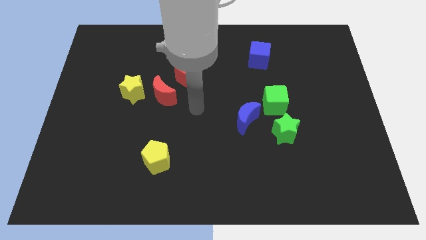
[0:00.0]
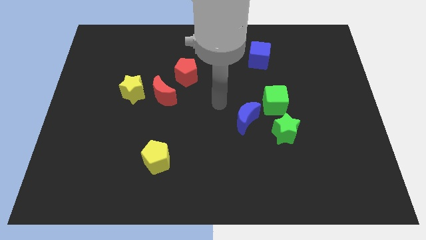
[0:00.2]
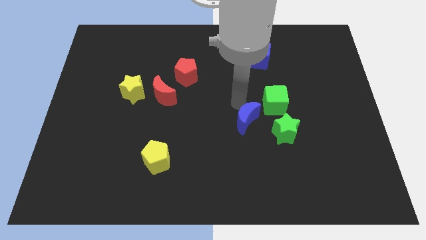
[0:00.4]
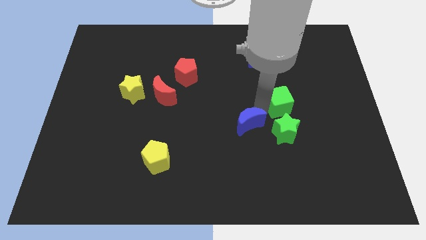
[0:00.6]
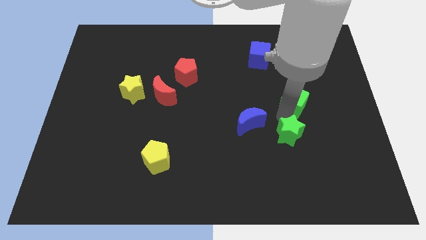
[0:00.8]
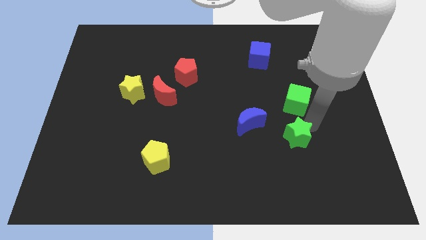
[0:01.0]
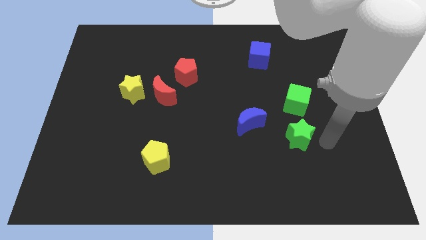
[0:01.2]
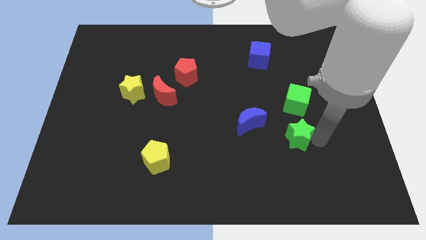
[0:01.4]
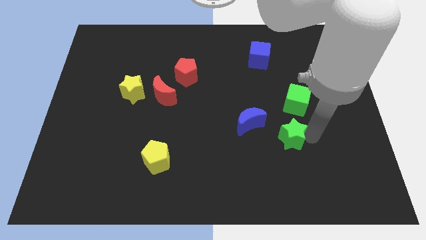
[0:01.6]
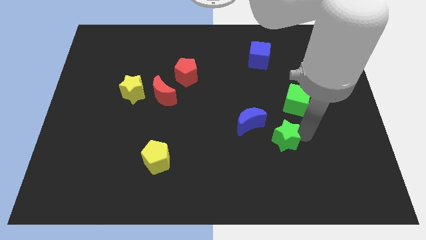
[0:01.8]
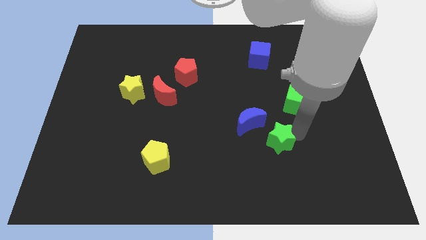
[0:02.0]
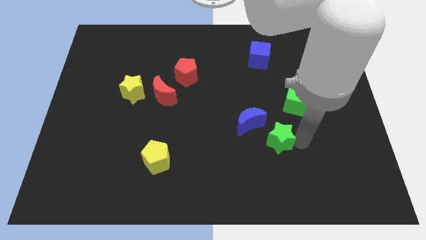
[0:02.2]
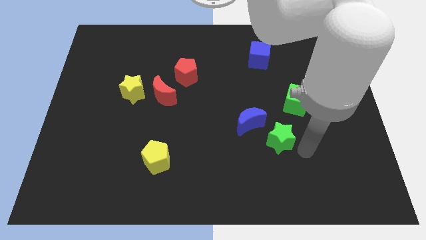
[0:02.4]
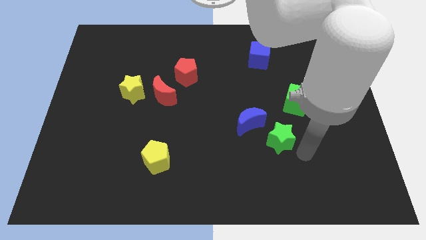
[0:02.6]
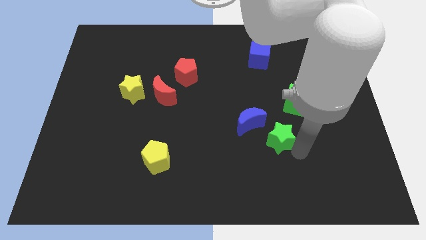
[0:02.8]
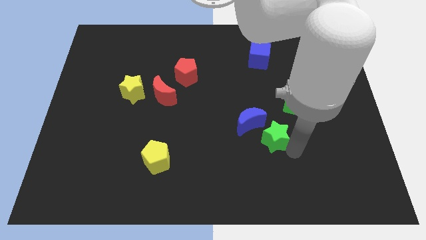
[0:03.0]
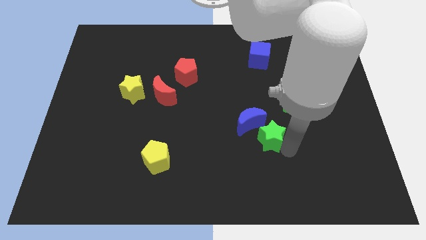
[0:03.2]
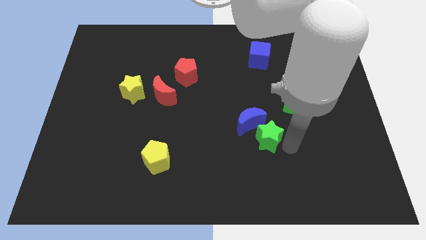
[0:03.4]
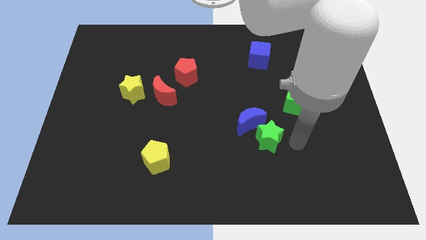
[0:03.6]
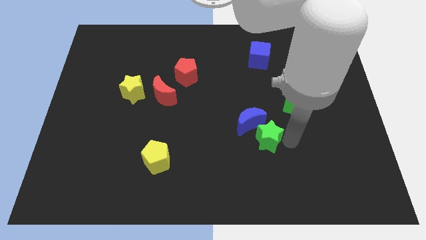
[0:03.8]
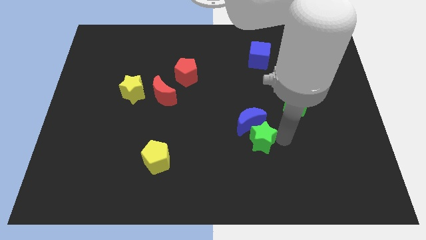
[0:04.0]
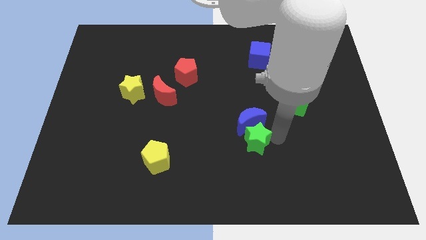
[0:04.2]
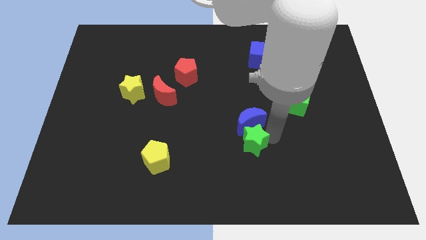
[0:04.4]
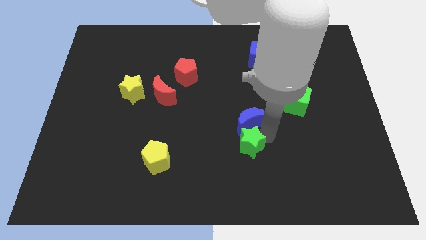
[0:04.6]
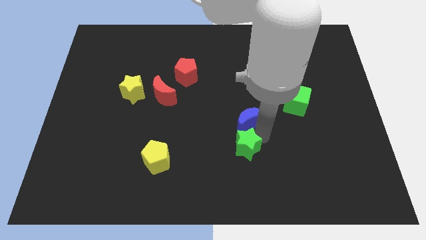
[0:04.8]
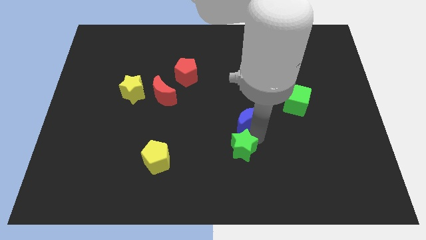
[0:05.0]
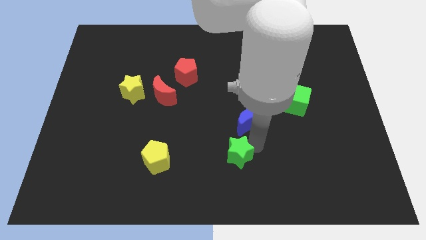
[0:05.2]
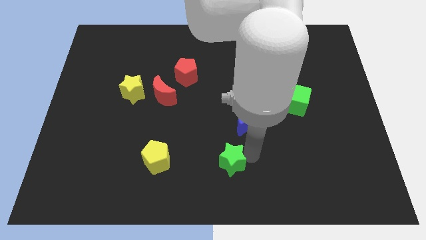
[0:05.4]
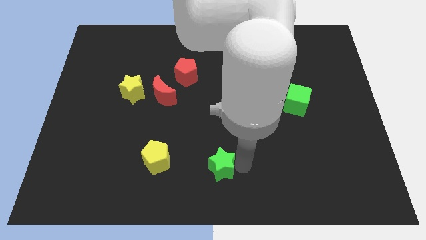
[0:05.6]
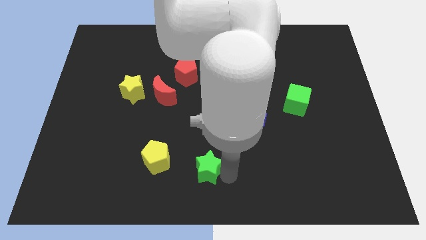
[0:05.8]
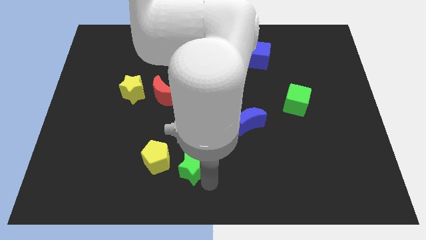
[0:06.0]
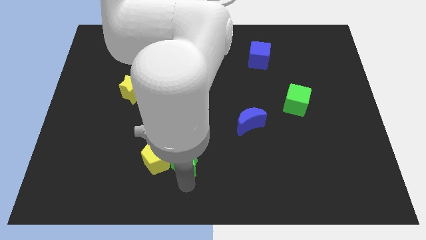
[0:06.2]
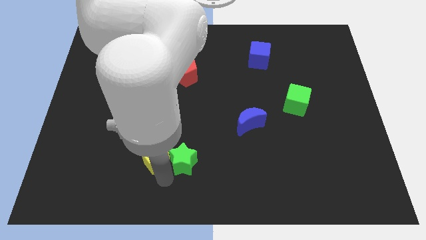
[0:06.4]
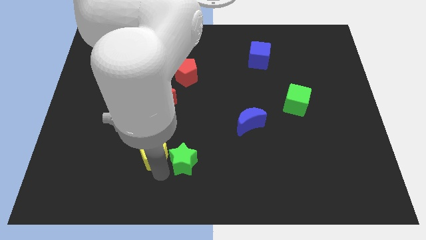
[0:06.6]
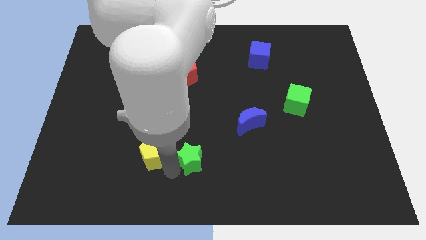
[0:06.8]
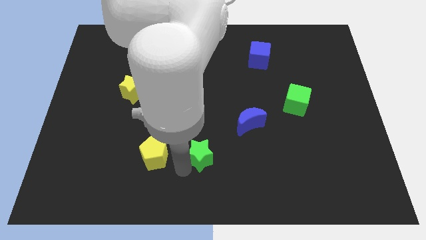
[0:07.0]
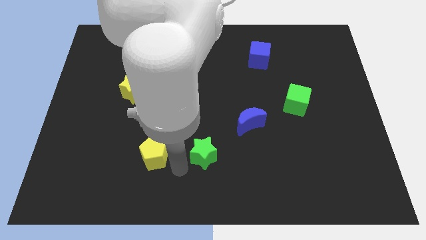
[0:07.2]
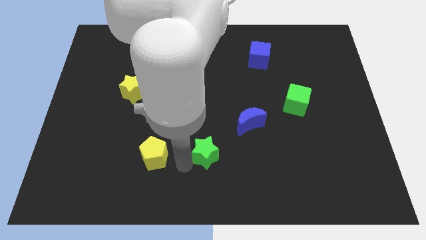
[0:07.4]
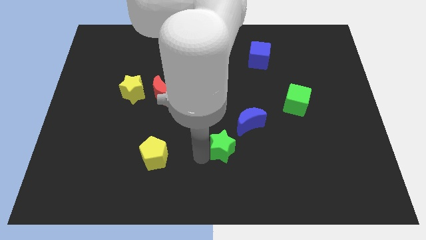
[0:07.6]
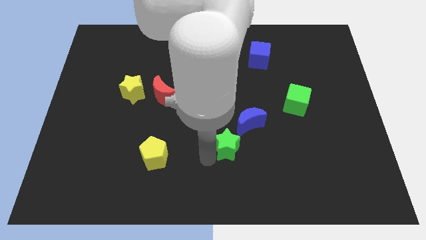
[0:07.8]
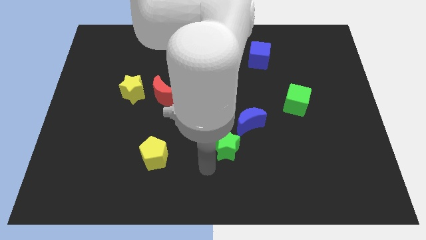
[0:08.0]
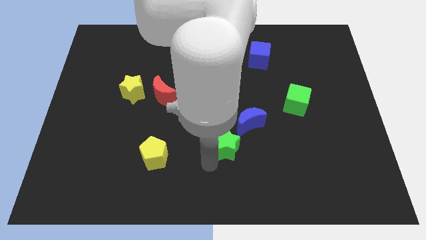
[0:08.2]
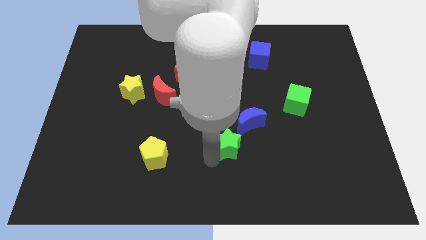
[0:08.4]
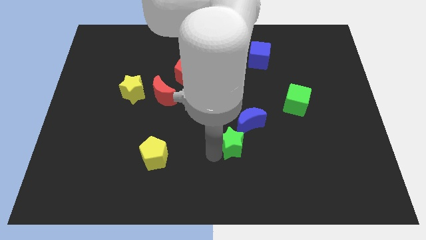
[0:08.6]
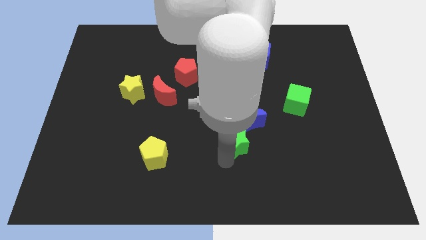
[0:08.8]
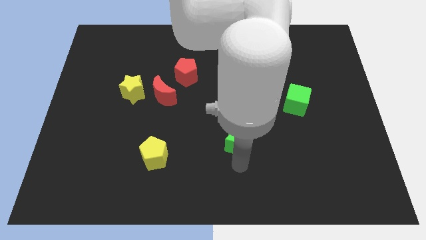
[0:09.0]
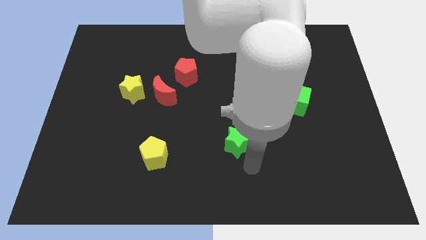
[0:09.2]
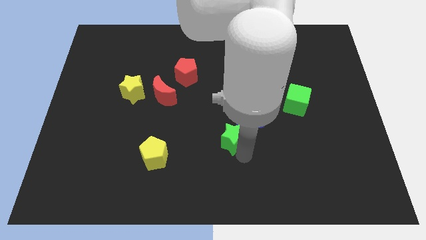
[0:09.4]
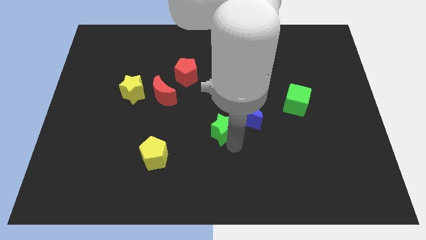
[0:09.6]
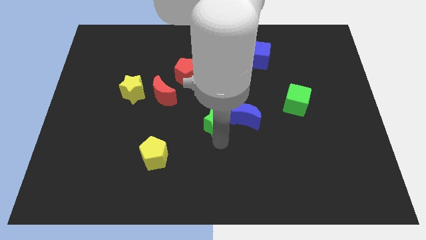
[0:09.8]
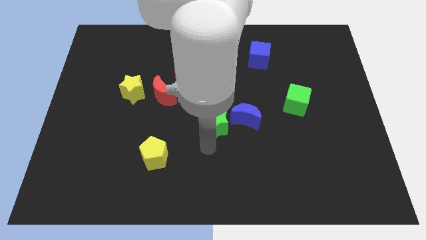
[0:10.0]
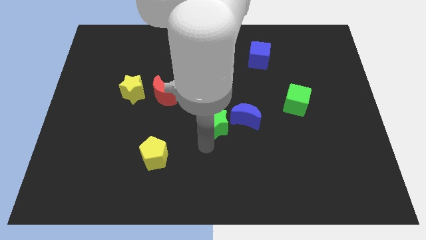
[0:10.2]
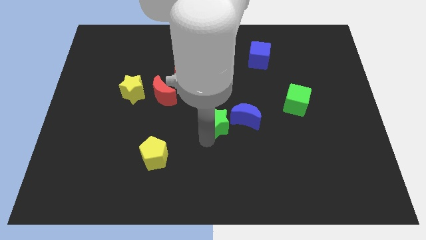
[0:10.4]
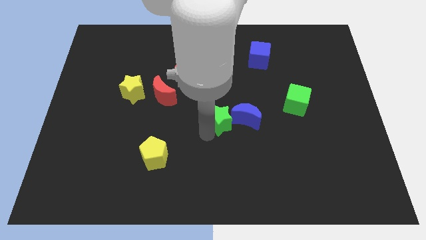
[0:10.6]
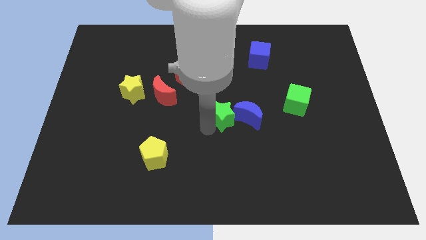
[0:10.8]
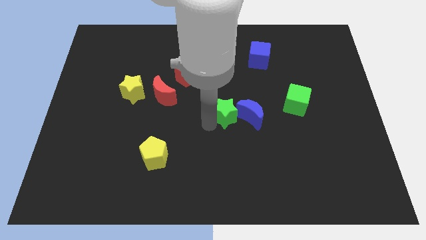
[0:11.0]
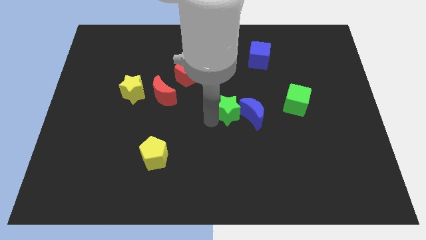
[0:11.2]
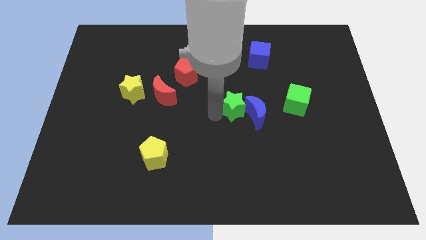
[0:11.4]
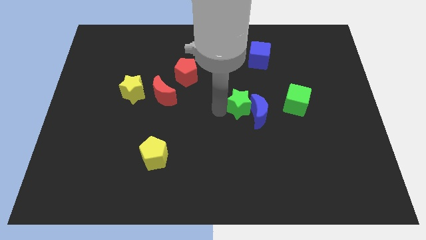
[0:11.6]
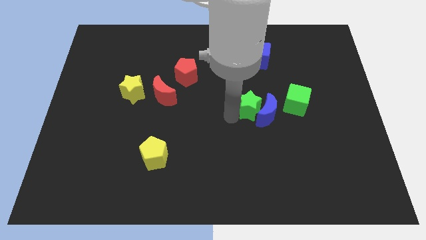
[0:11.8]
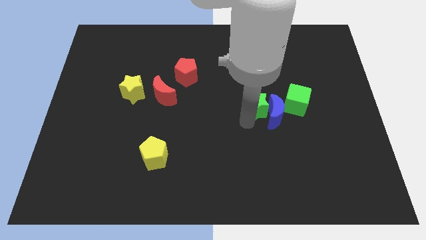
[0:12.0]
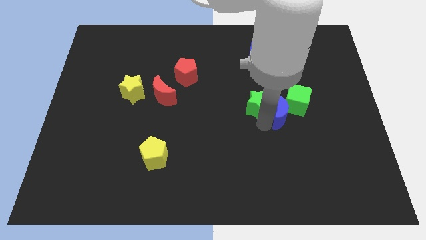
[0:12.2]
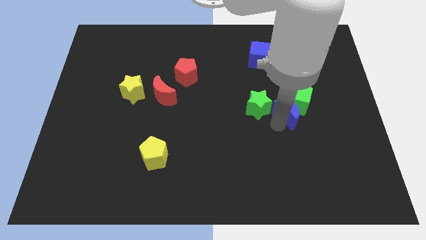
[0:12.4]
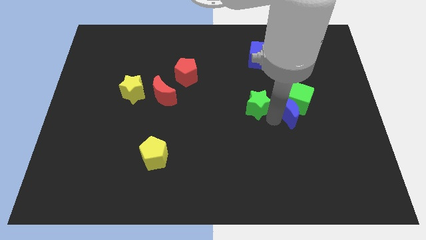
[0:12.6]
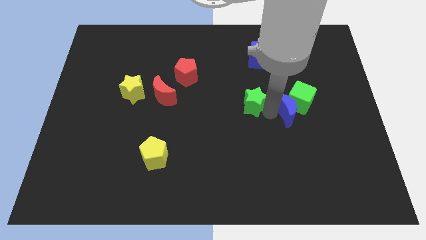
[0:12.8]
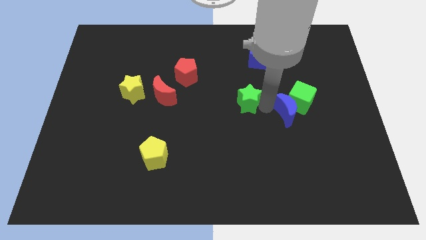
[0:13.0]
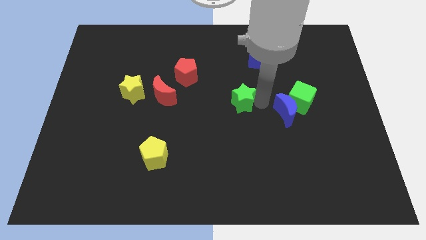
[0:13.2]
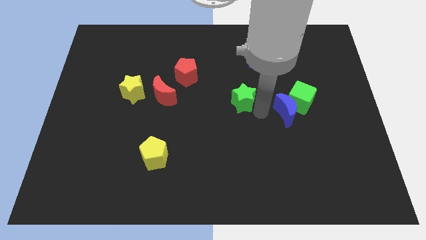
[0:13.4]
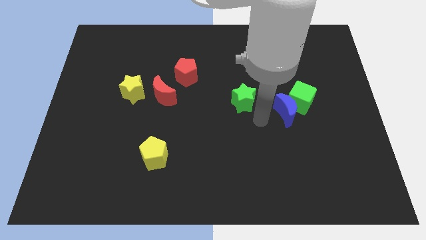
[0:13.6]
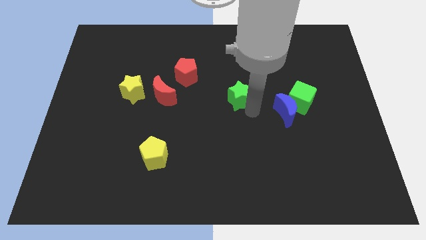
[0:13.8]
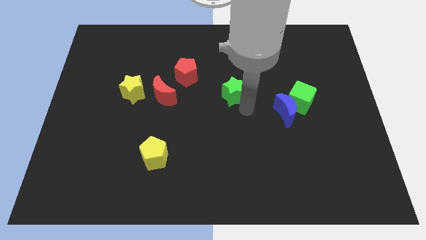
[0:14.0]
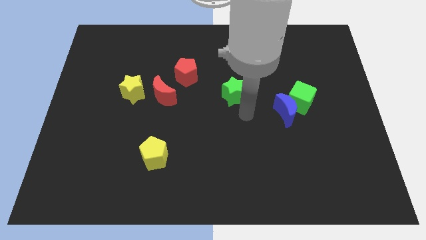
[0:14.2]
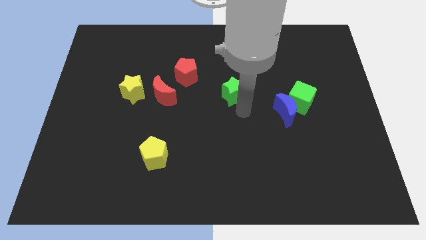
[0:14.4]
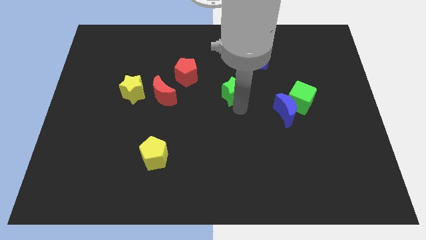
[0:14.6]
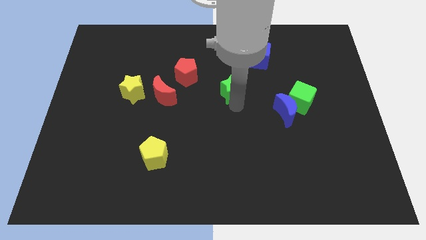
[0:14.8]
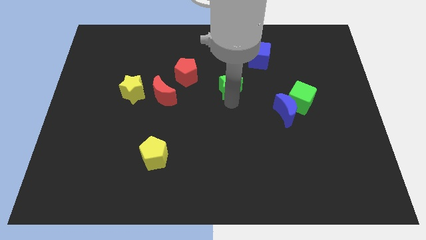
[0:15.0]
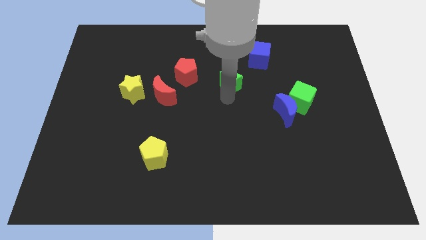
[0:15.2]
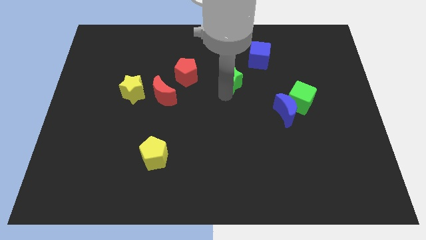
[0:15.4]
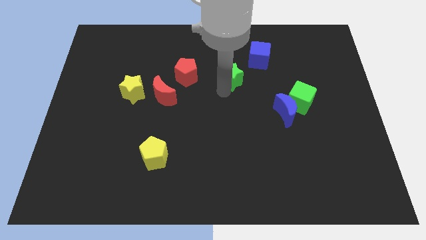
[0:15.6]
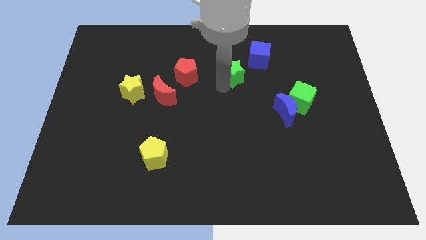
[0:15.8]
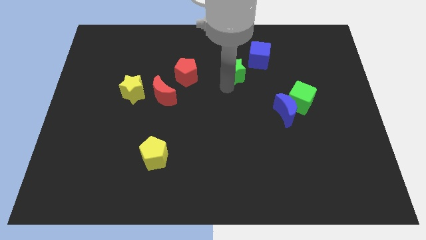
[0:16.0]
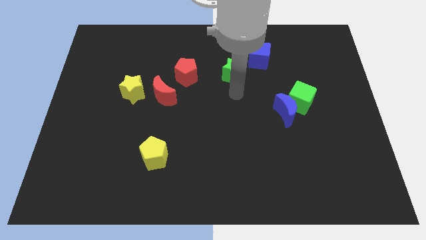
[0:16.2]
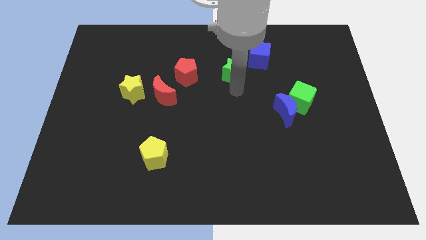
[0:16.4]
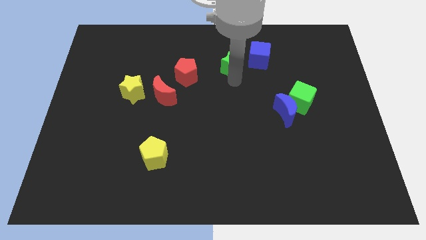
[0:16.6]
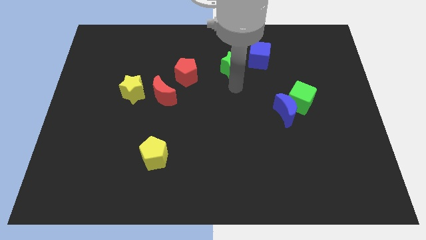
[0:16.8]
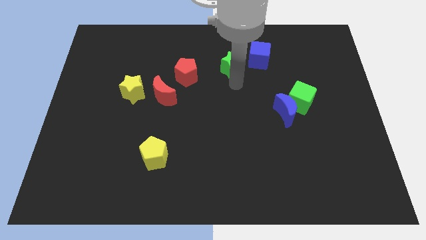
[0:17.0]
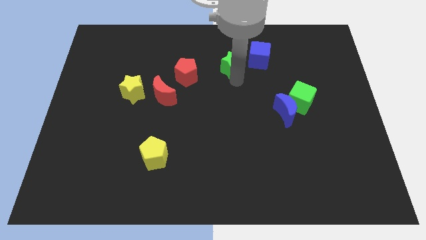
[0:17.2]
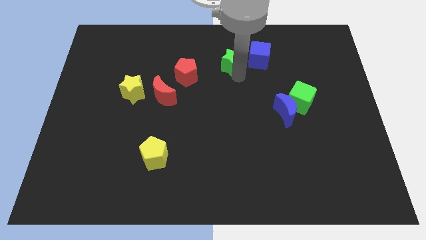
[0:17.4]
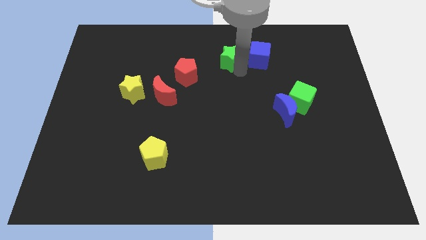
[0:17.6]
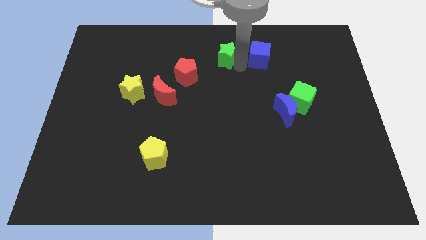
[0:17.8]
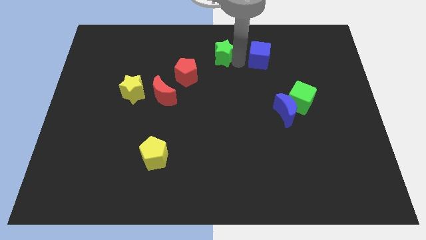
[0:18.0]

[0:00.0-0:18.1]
slide the green star to the top
